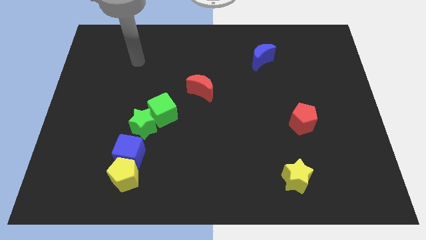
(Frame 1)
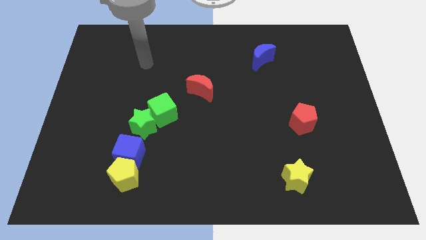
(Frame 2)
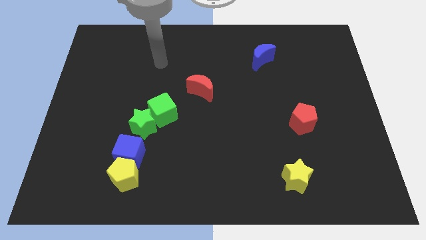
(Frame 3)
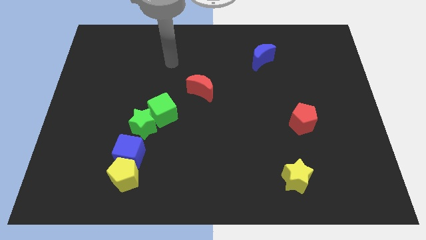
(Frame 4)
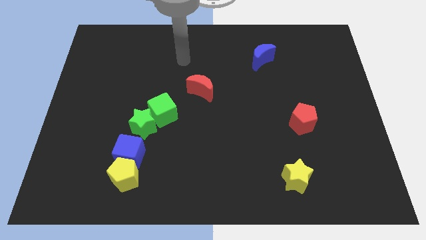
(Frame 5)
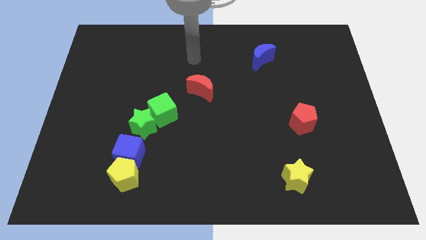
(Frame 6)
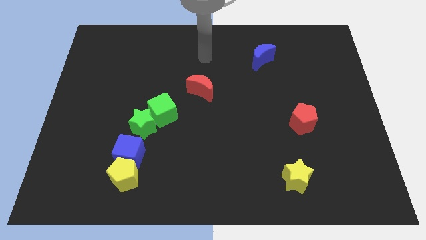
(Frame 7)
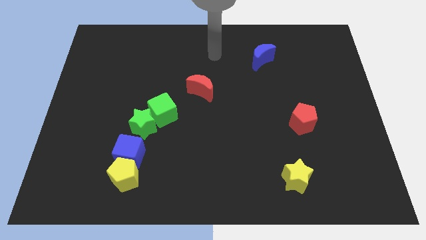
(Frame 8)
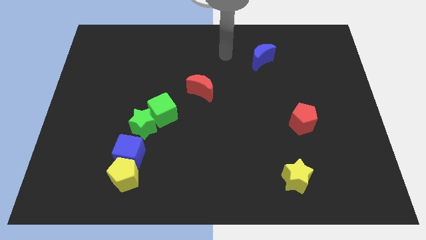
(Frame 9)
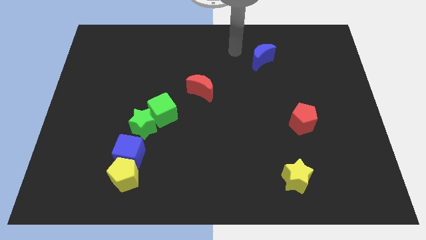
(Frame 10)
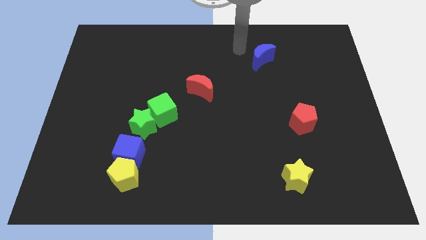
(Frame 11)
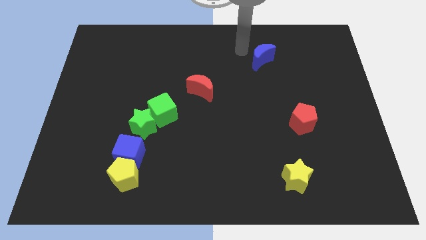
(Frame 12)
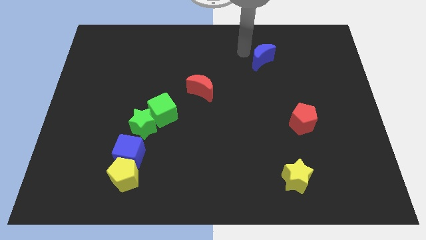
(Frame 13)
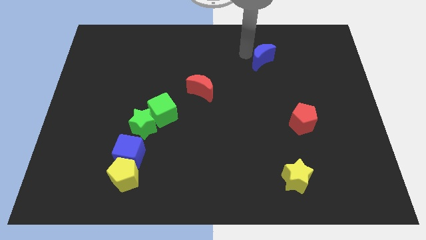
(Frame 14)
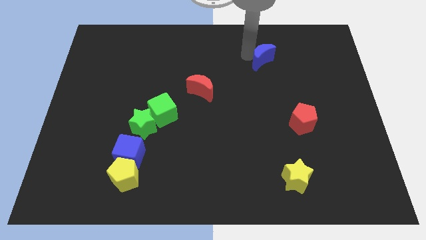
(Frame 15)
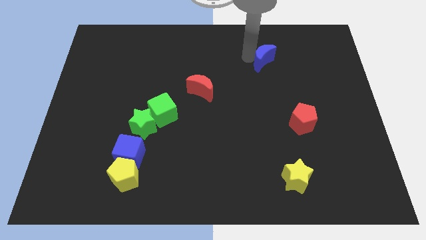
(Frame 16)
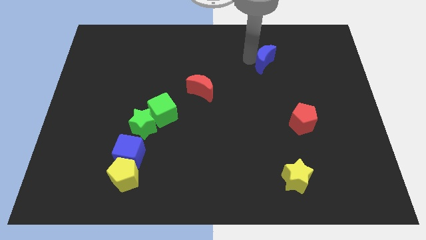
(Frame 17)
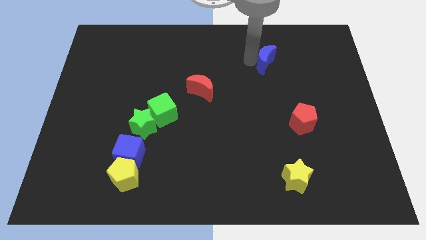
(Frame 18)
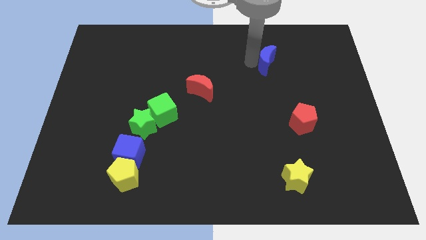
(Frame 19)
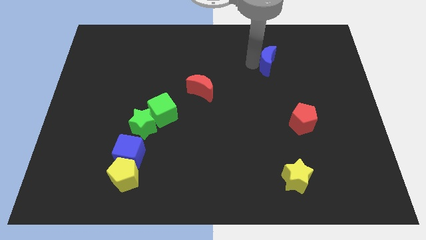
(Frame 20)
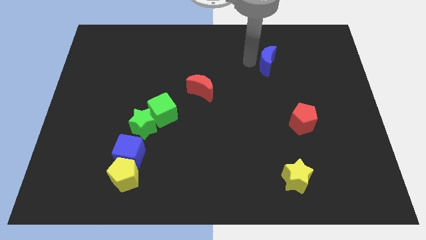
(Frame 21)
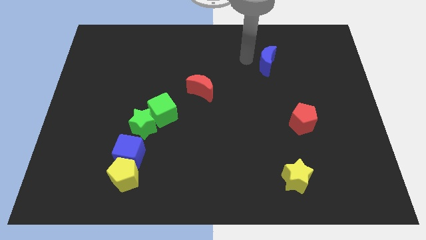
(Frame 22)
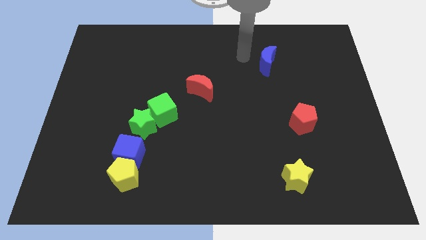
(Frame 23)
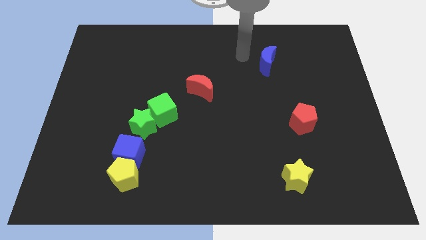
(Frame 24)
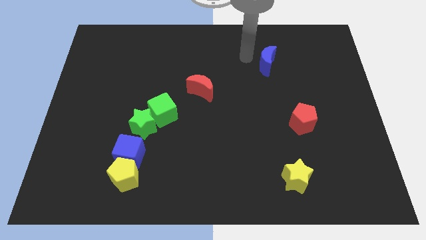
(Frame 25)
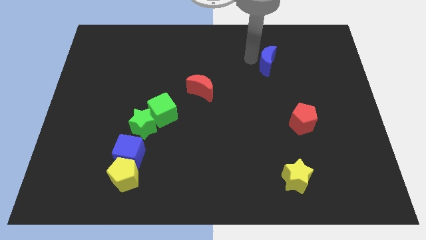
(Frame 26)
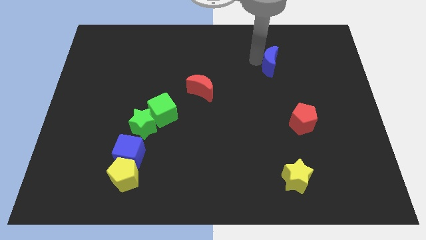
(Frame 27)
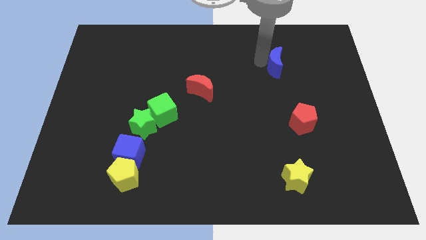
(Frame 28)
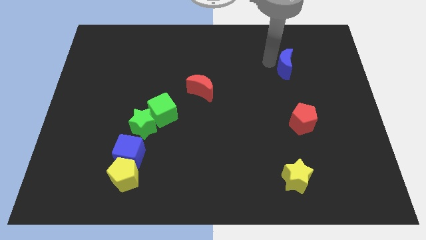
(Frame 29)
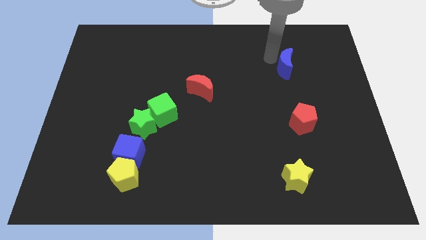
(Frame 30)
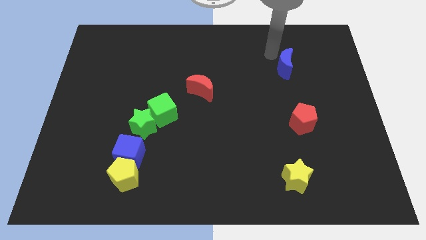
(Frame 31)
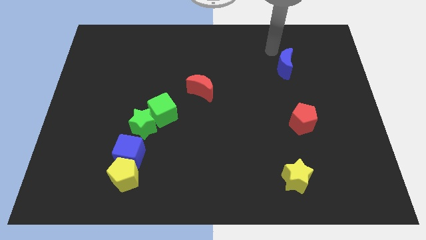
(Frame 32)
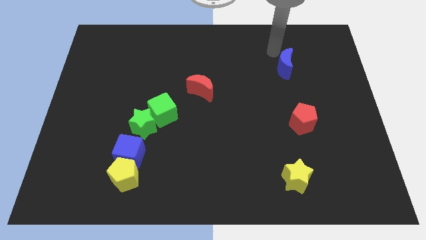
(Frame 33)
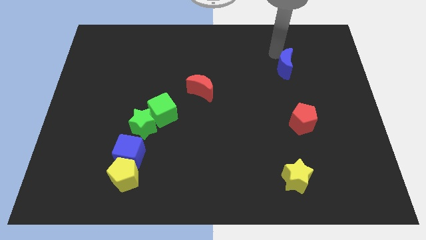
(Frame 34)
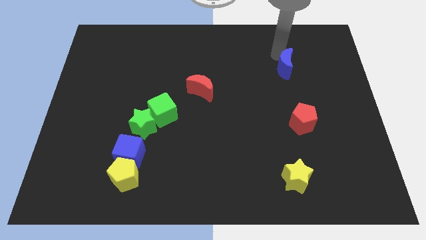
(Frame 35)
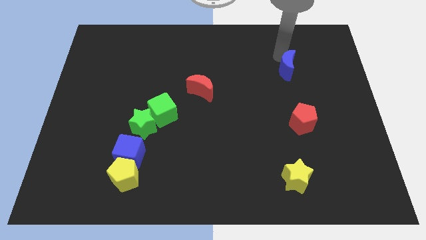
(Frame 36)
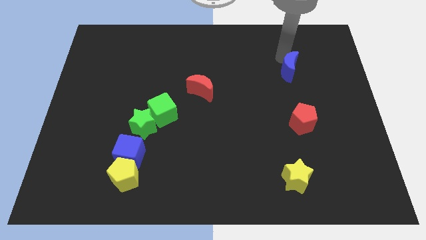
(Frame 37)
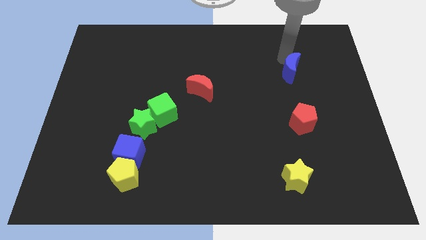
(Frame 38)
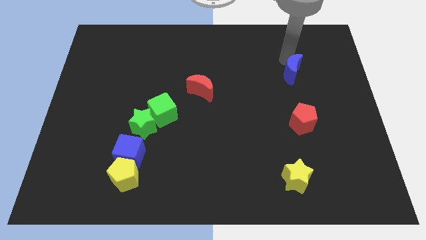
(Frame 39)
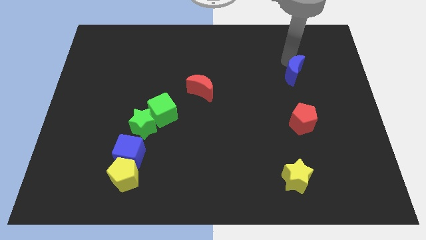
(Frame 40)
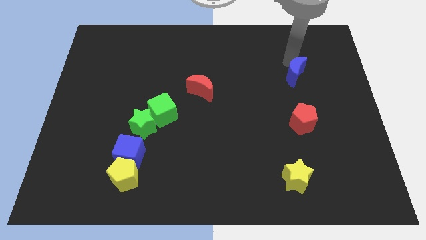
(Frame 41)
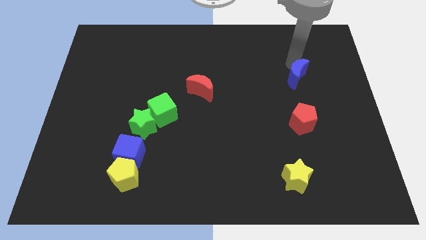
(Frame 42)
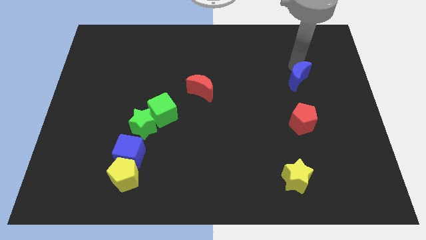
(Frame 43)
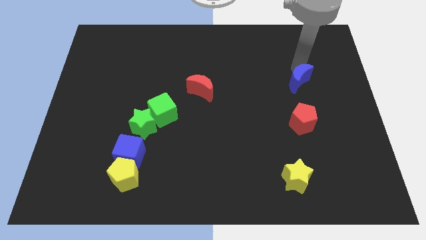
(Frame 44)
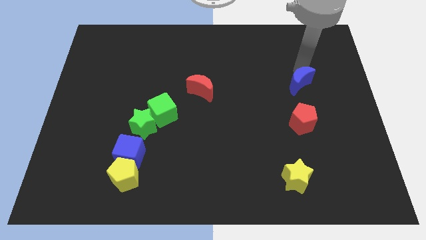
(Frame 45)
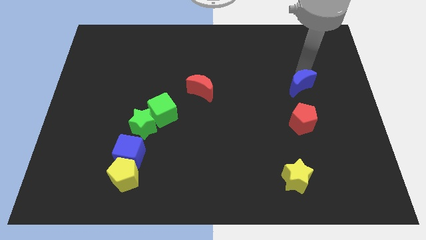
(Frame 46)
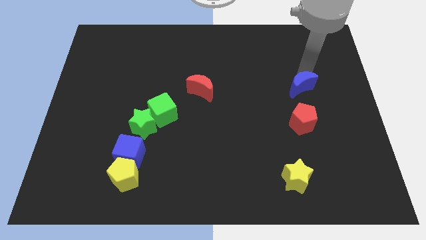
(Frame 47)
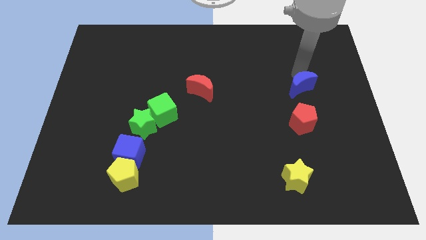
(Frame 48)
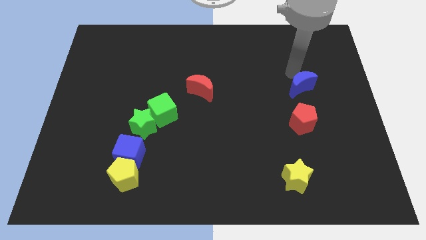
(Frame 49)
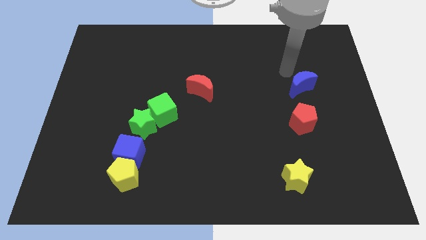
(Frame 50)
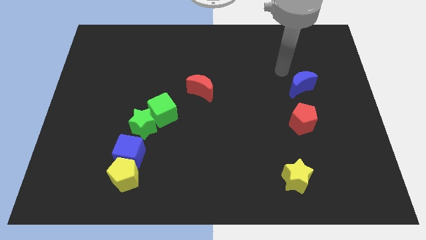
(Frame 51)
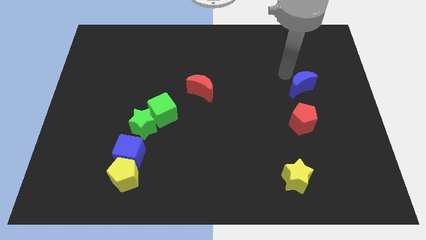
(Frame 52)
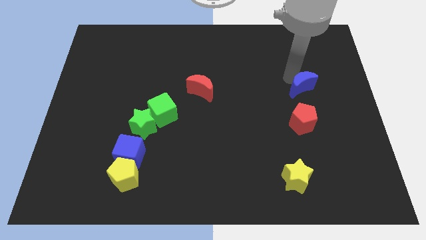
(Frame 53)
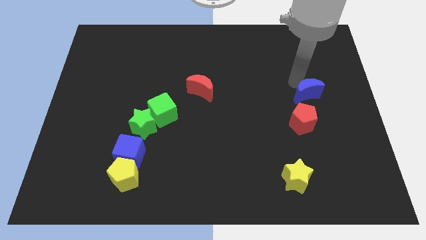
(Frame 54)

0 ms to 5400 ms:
put the blue moon to the top right of the red pentagon

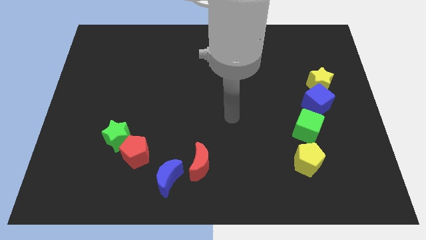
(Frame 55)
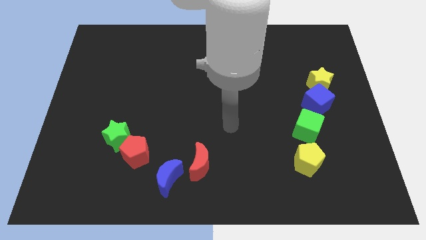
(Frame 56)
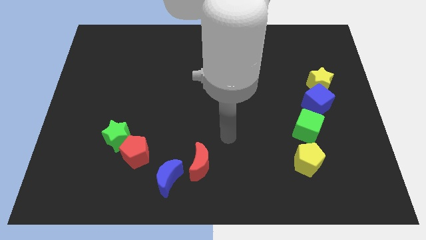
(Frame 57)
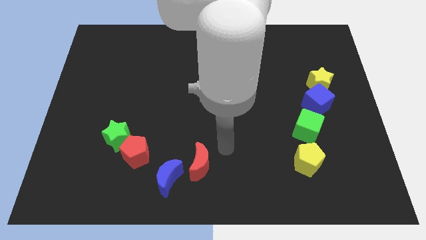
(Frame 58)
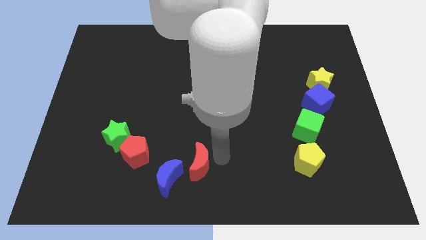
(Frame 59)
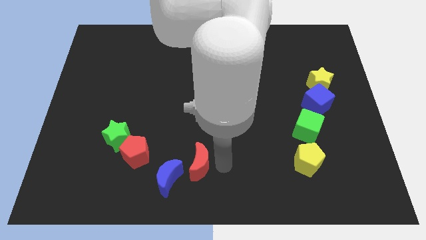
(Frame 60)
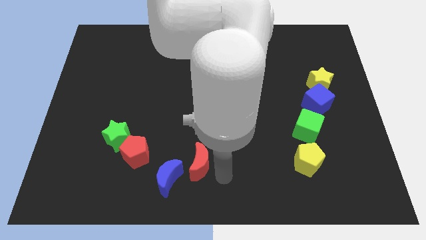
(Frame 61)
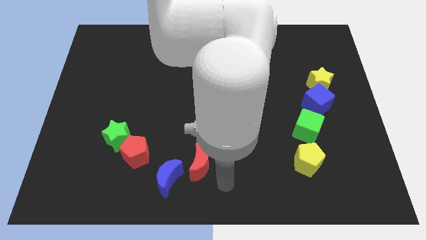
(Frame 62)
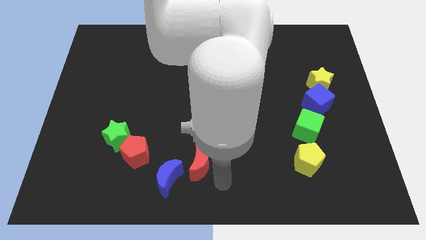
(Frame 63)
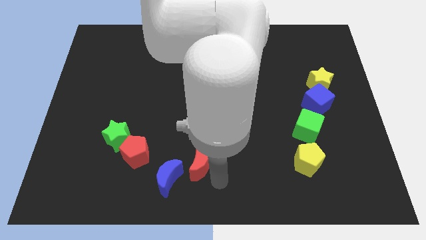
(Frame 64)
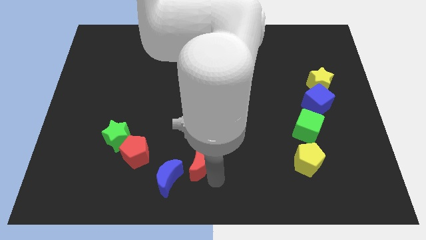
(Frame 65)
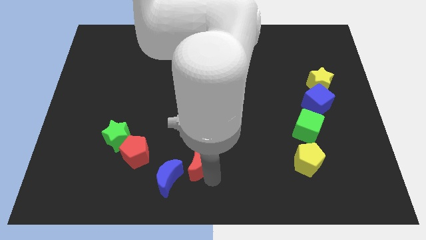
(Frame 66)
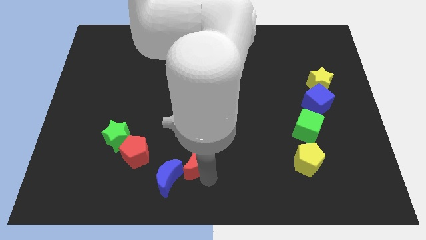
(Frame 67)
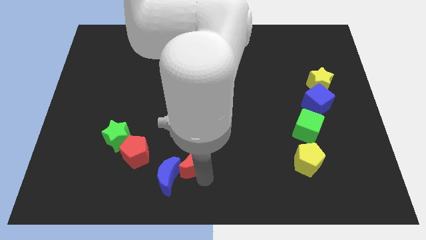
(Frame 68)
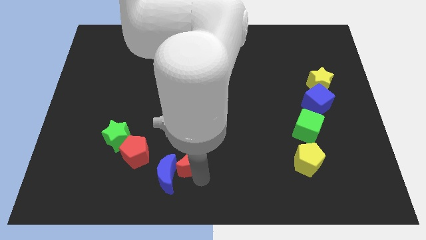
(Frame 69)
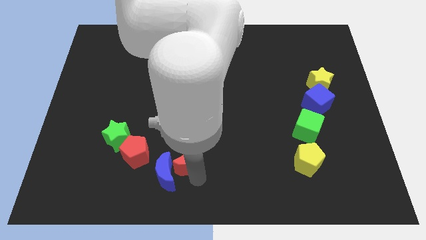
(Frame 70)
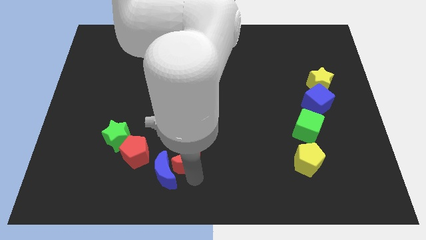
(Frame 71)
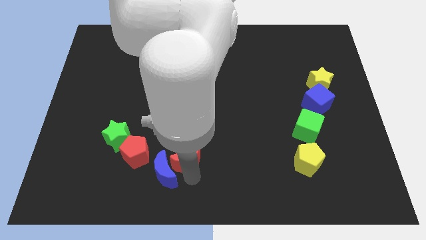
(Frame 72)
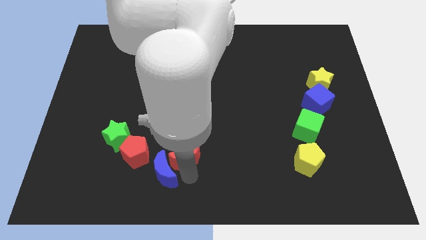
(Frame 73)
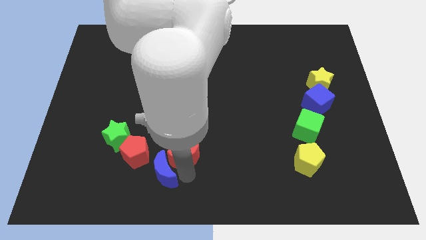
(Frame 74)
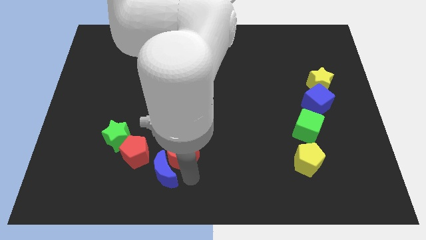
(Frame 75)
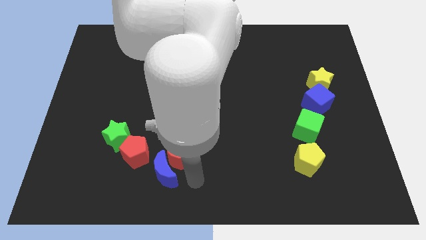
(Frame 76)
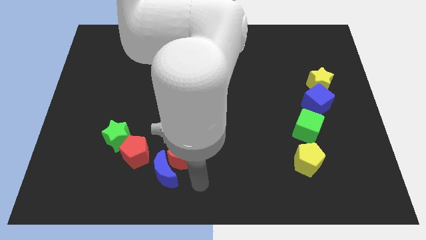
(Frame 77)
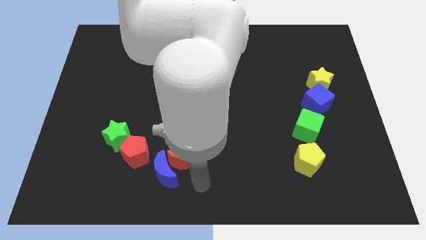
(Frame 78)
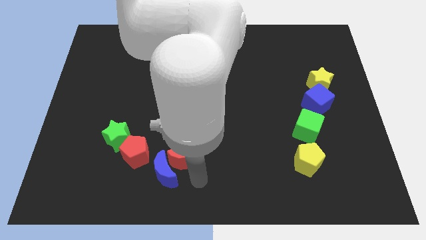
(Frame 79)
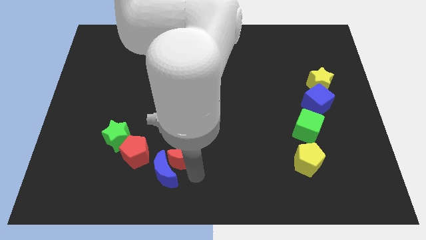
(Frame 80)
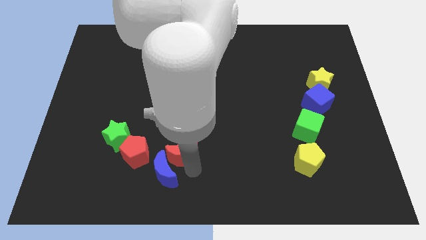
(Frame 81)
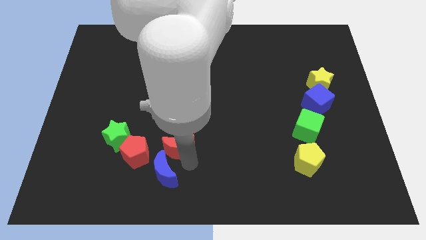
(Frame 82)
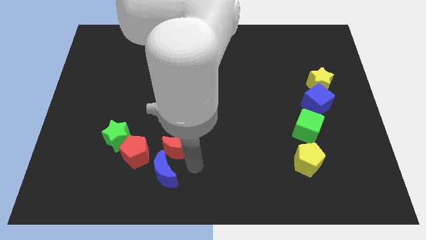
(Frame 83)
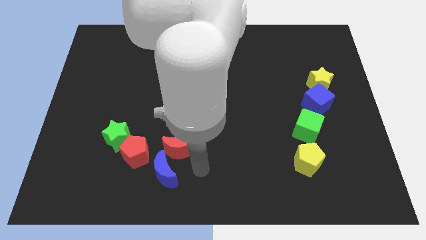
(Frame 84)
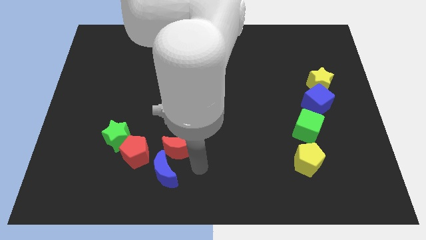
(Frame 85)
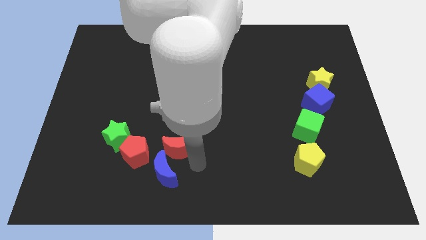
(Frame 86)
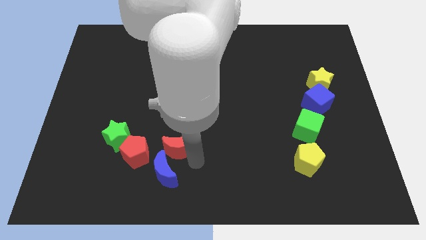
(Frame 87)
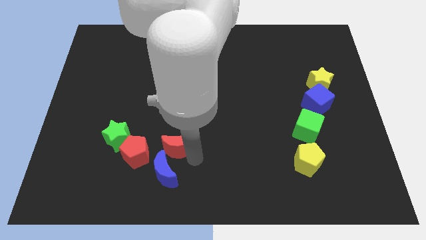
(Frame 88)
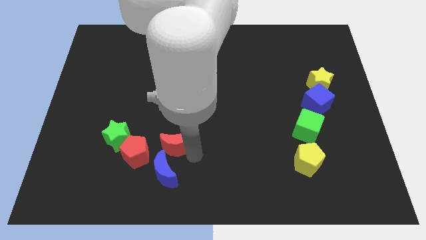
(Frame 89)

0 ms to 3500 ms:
slide the red moon diagonally up and to the right of the red pentagon
